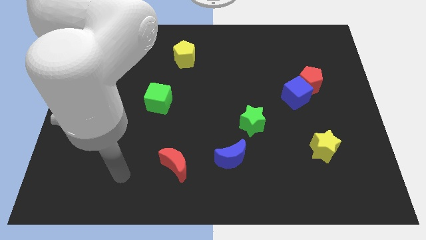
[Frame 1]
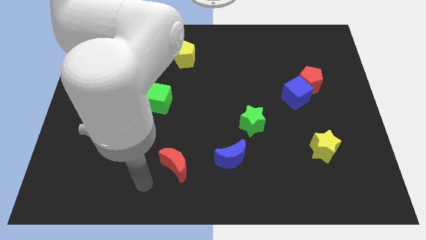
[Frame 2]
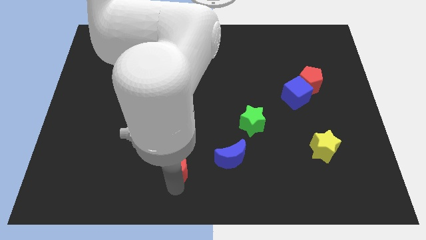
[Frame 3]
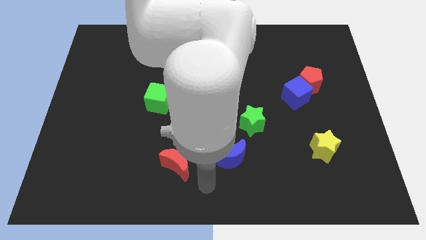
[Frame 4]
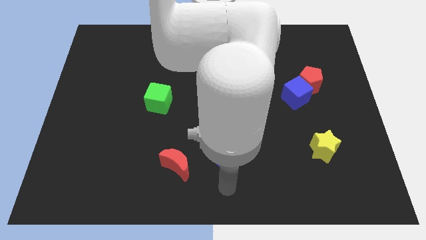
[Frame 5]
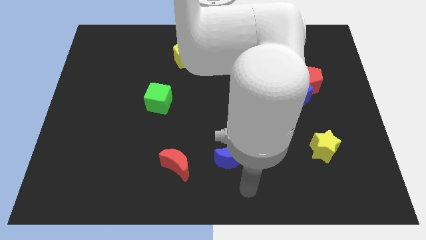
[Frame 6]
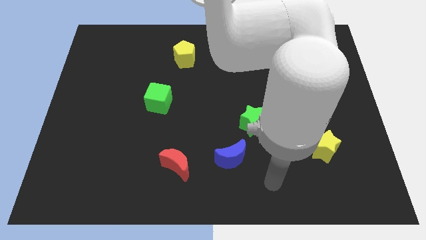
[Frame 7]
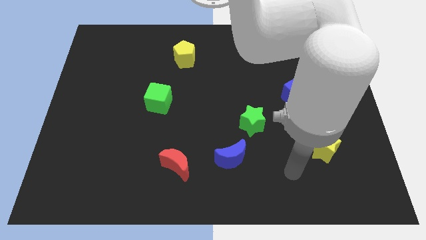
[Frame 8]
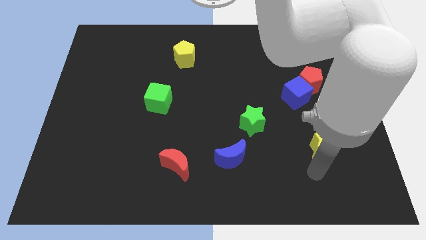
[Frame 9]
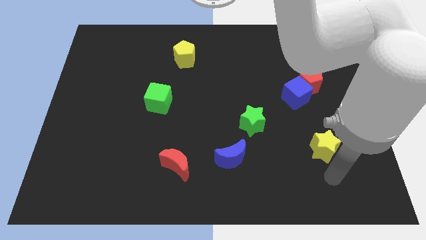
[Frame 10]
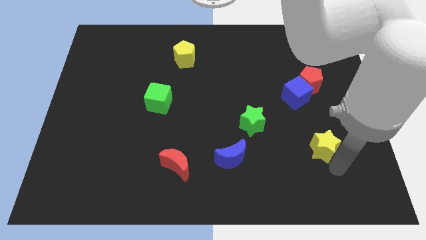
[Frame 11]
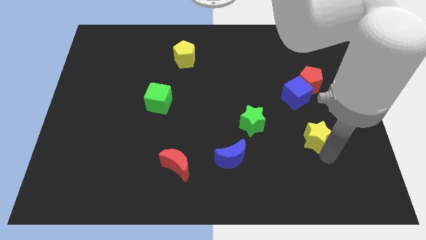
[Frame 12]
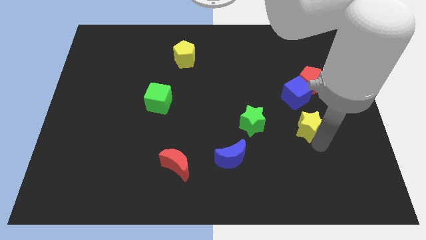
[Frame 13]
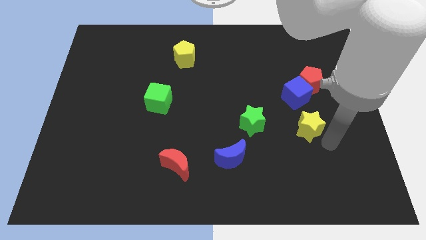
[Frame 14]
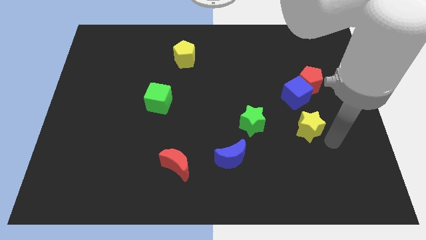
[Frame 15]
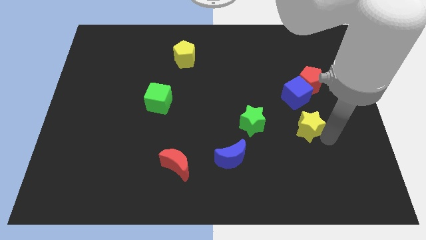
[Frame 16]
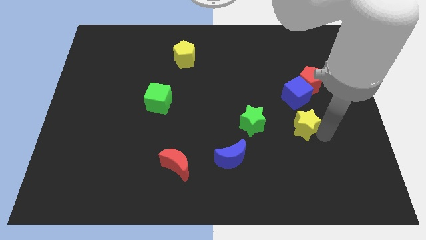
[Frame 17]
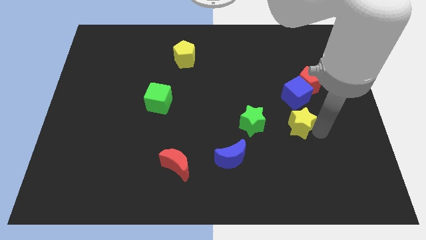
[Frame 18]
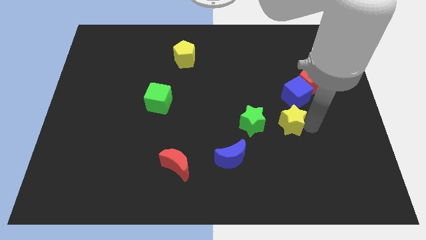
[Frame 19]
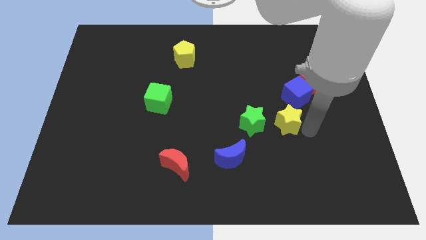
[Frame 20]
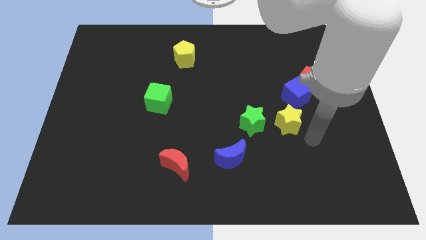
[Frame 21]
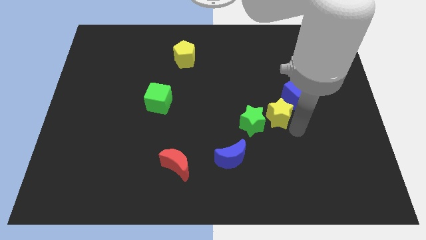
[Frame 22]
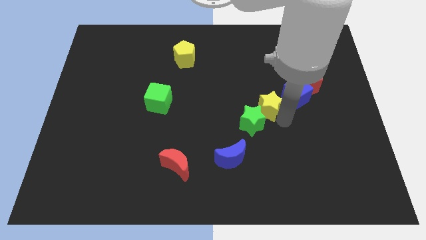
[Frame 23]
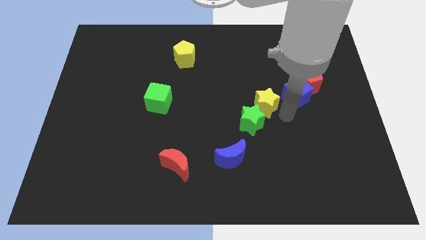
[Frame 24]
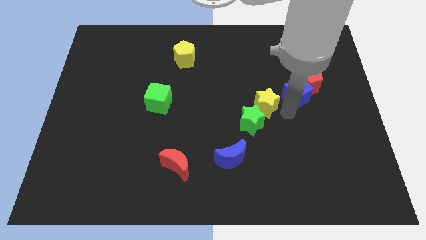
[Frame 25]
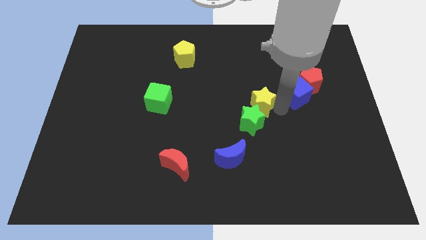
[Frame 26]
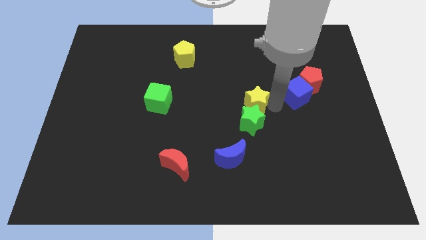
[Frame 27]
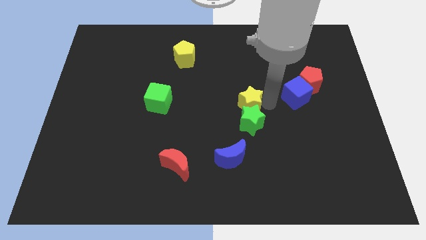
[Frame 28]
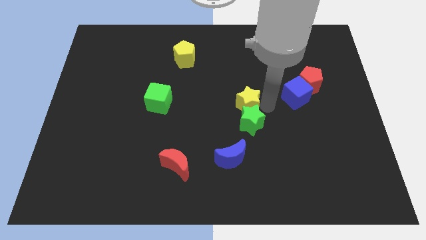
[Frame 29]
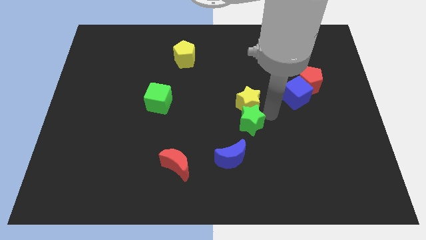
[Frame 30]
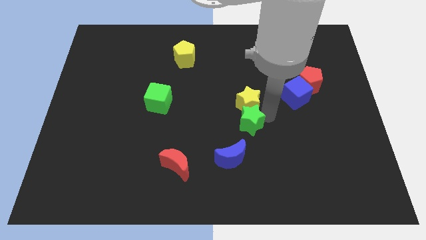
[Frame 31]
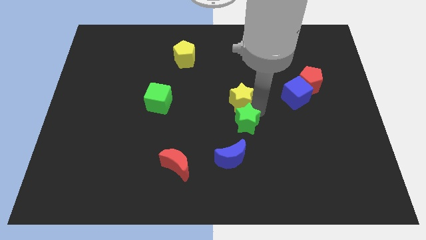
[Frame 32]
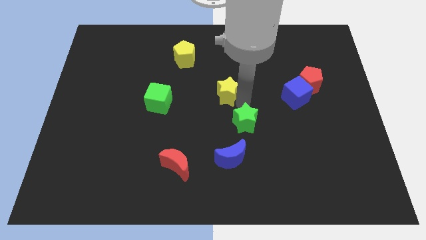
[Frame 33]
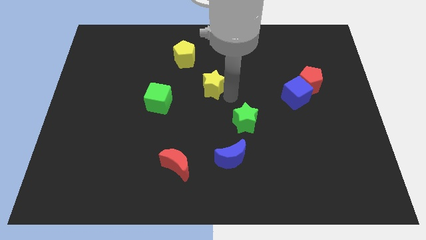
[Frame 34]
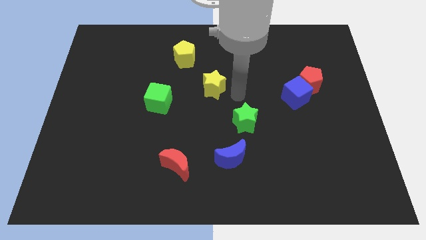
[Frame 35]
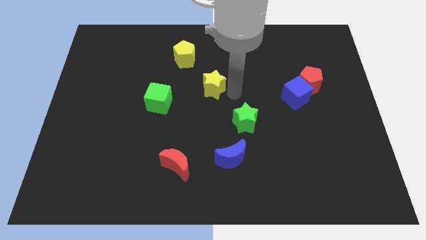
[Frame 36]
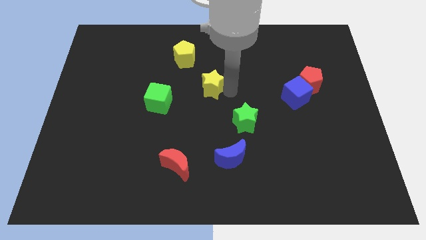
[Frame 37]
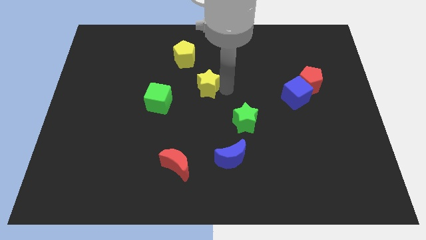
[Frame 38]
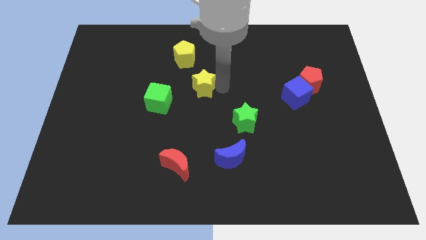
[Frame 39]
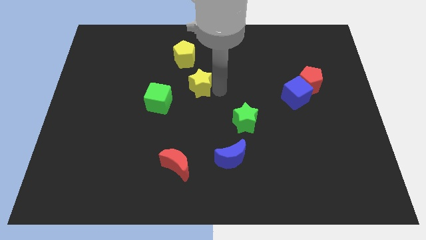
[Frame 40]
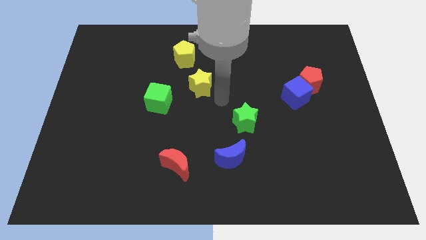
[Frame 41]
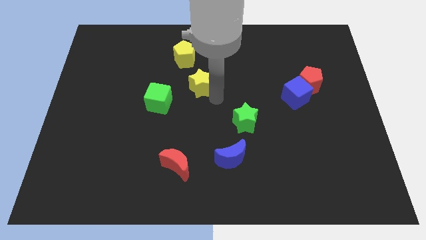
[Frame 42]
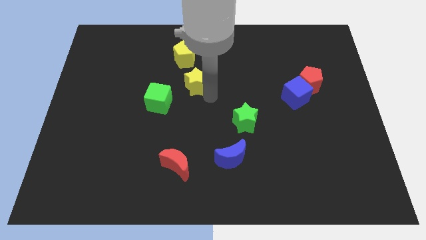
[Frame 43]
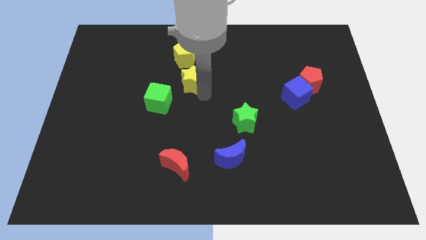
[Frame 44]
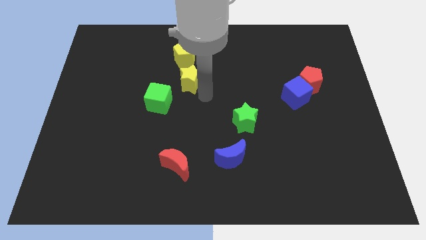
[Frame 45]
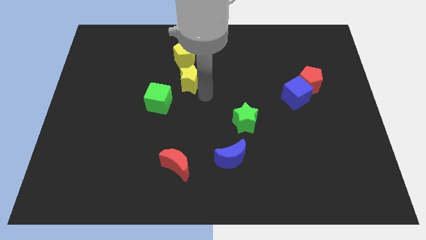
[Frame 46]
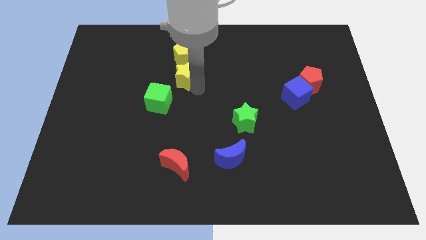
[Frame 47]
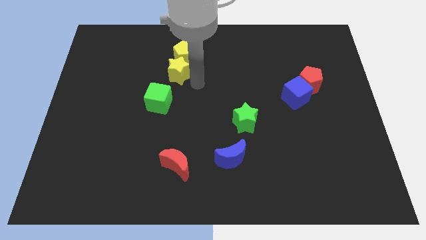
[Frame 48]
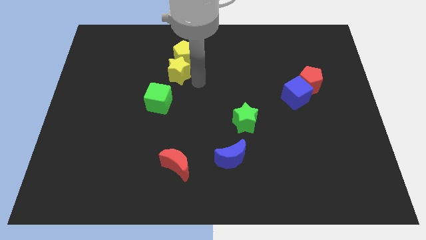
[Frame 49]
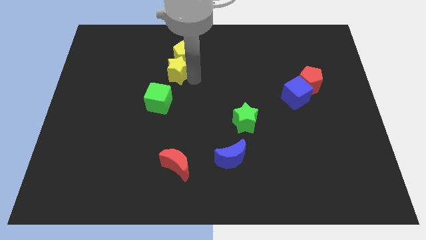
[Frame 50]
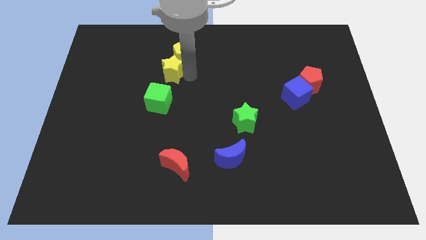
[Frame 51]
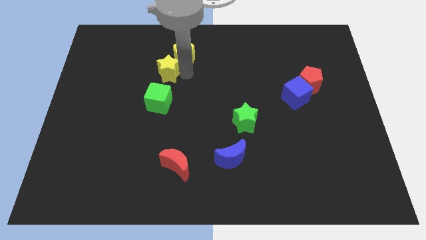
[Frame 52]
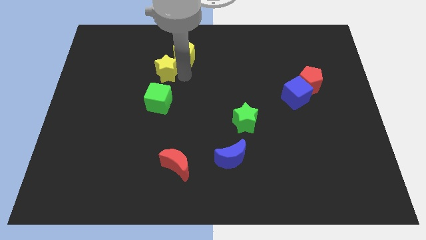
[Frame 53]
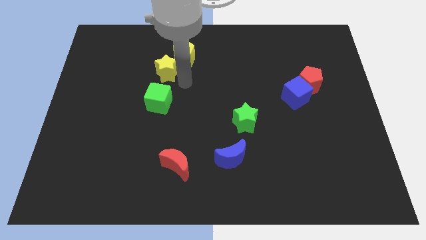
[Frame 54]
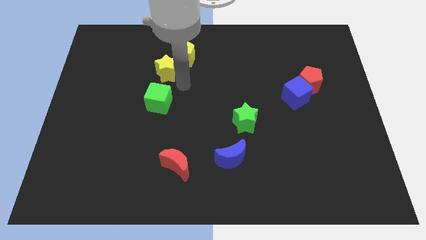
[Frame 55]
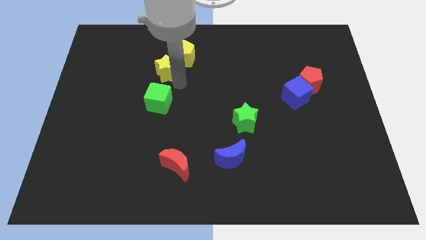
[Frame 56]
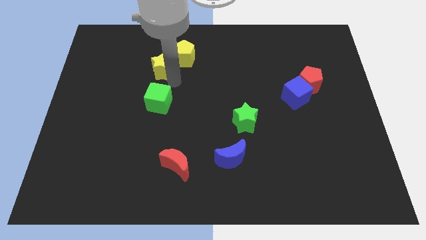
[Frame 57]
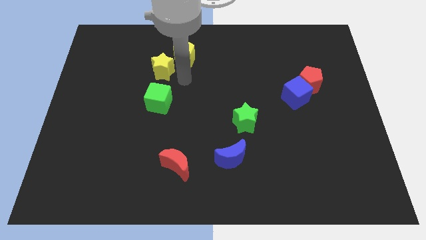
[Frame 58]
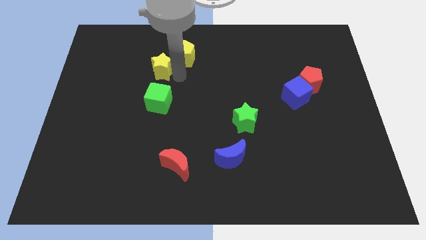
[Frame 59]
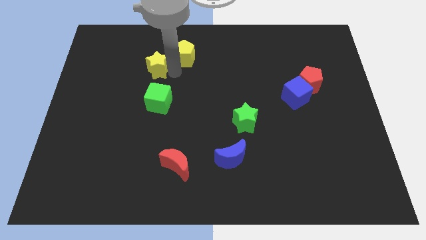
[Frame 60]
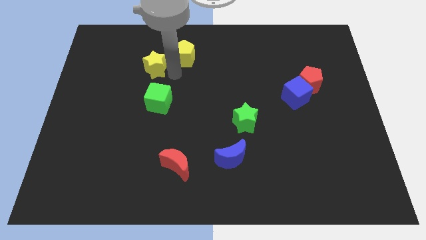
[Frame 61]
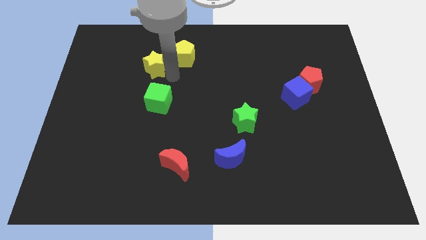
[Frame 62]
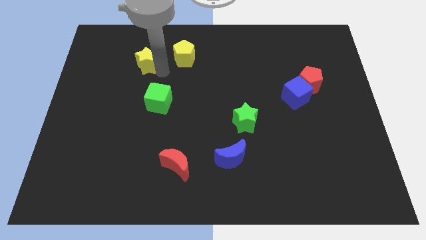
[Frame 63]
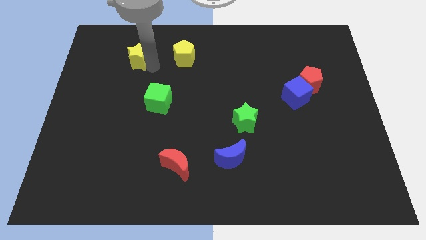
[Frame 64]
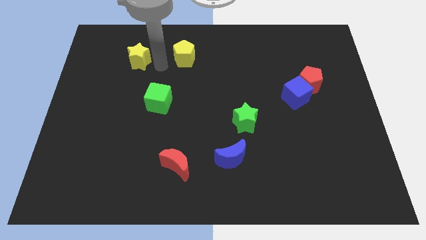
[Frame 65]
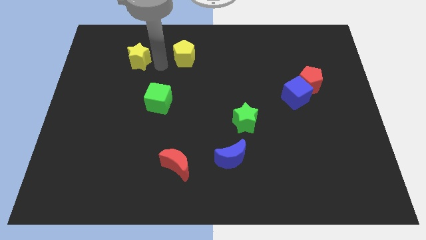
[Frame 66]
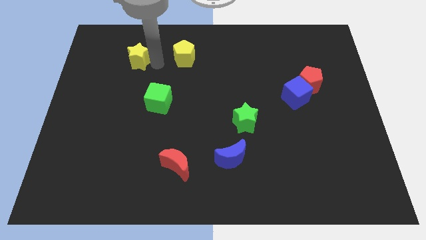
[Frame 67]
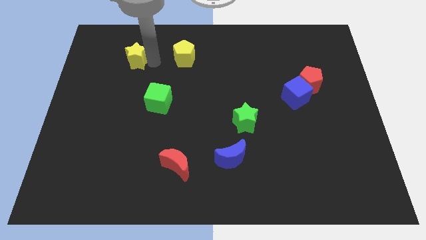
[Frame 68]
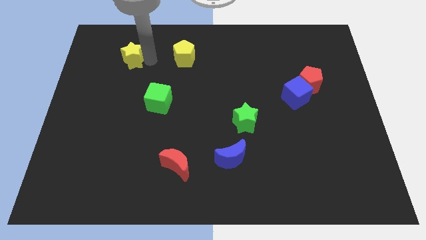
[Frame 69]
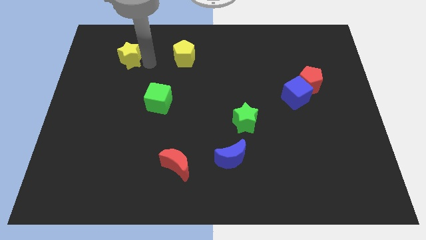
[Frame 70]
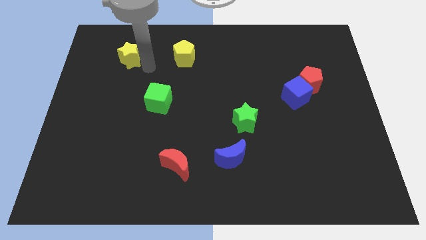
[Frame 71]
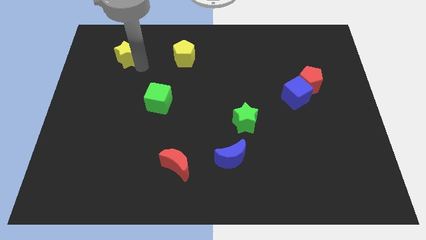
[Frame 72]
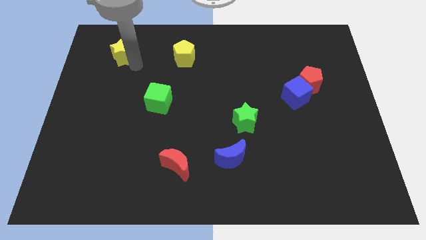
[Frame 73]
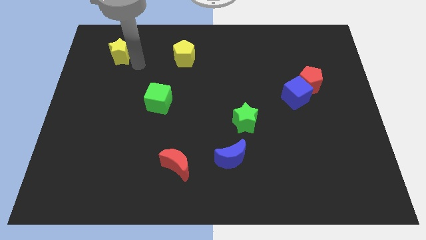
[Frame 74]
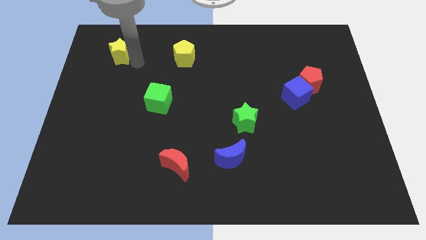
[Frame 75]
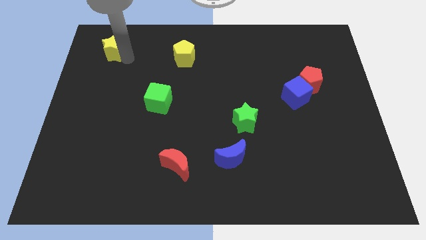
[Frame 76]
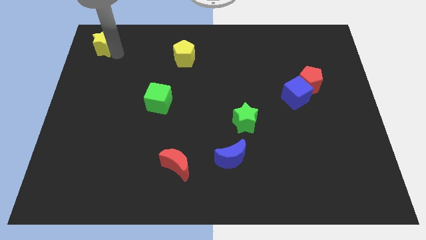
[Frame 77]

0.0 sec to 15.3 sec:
put the yellow star to the upper left corner
